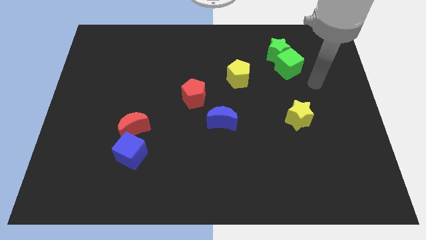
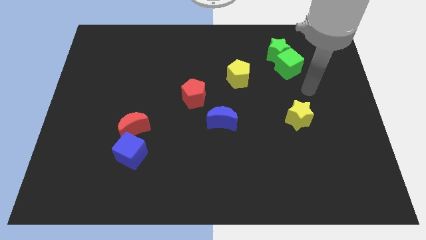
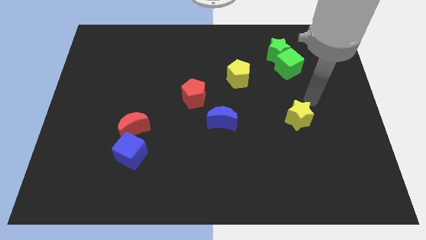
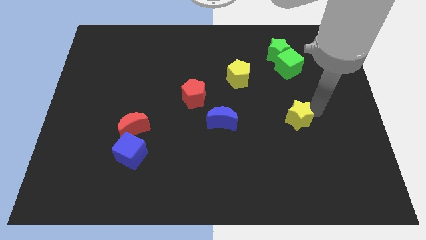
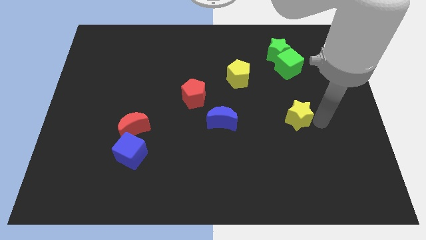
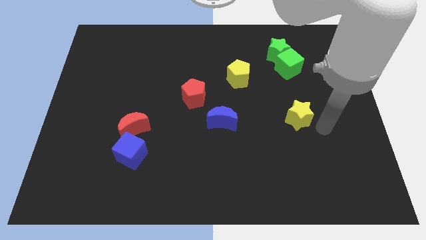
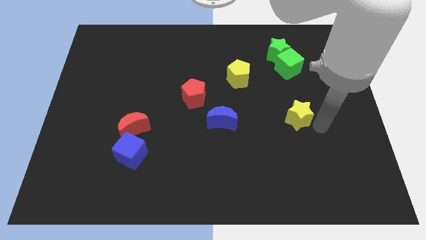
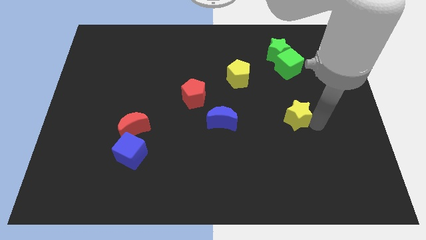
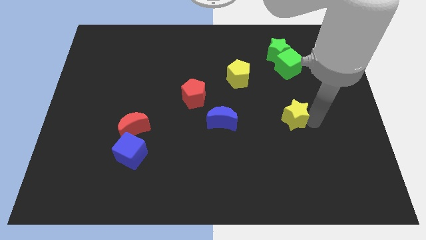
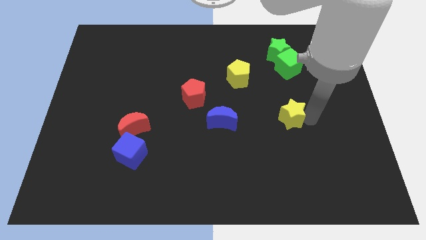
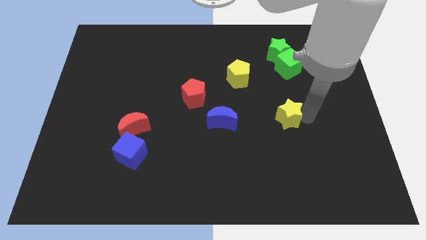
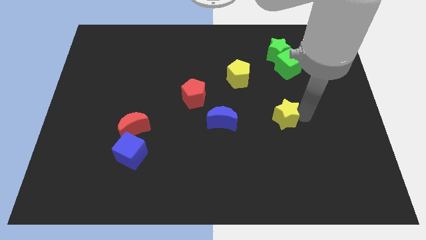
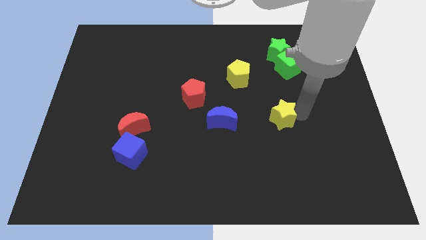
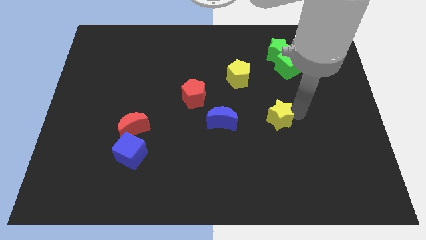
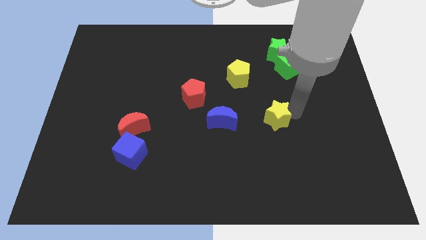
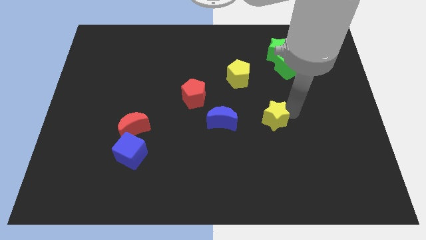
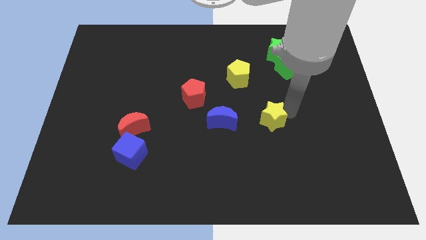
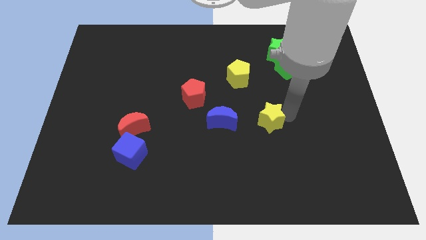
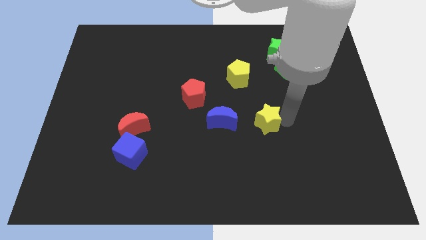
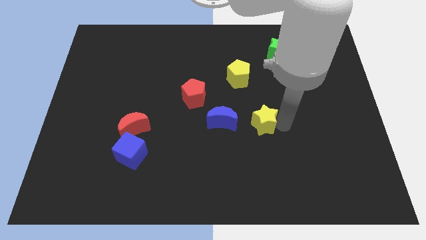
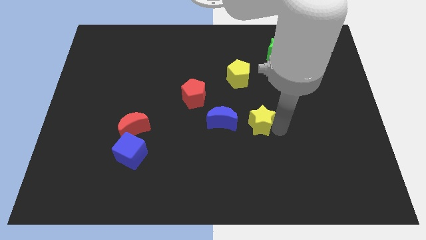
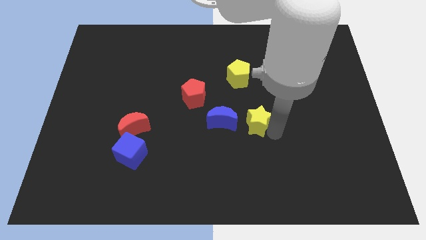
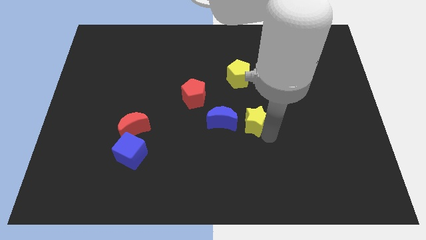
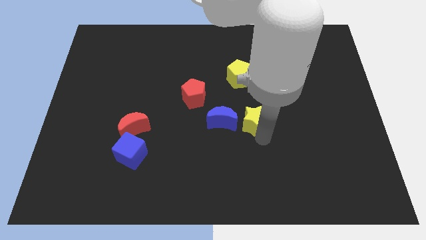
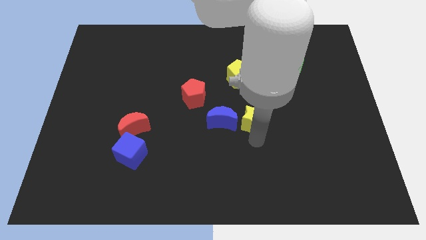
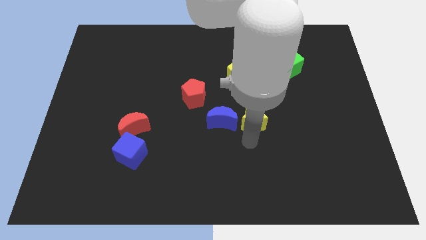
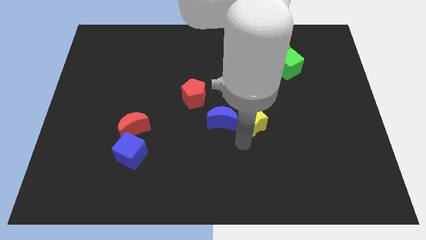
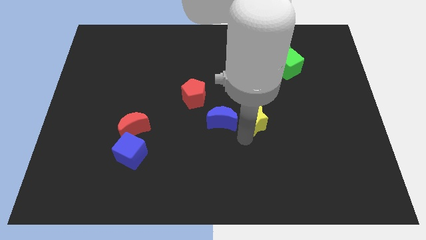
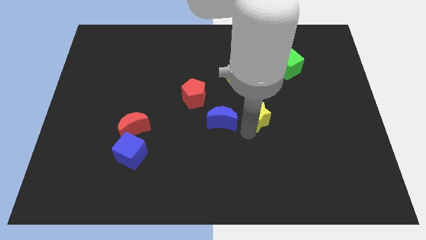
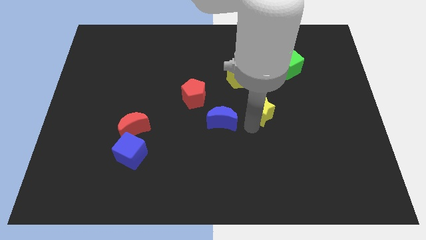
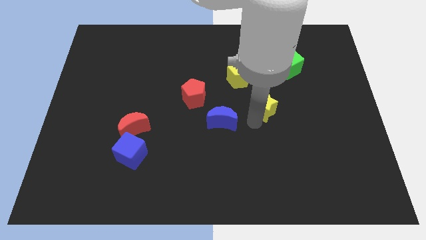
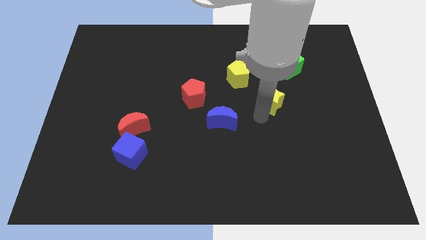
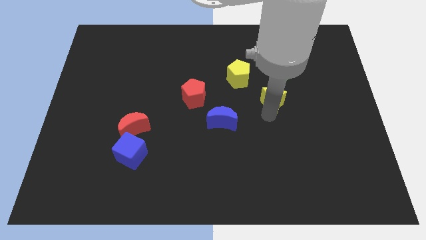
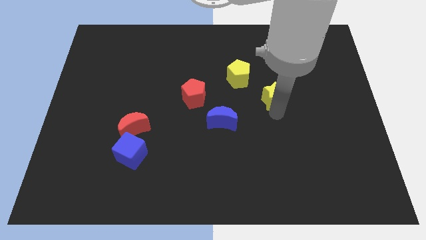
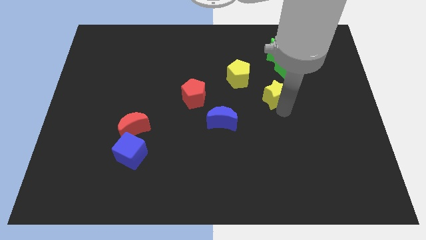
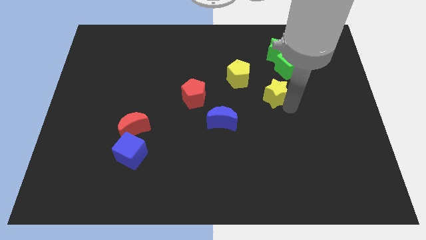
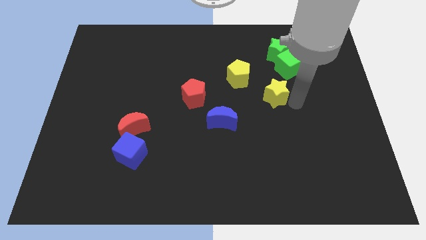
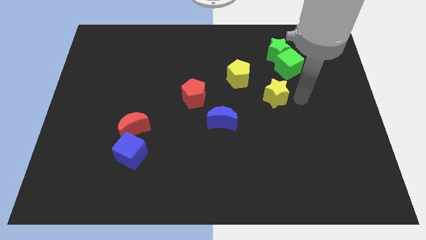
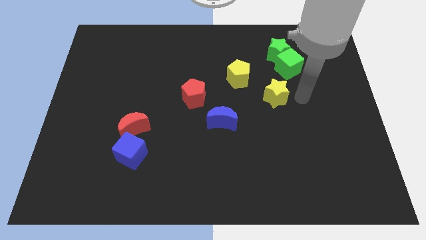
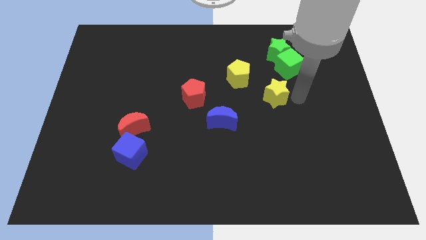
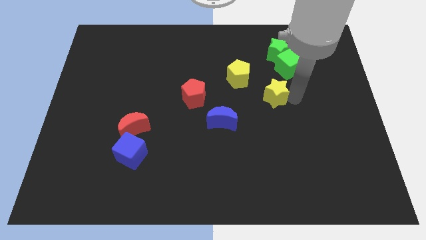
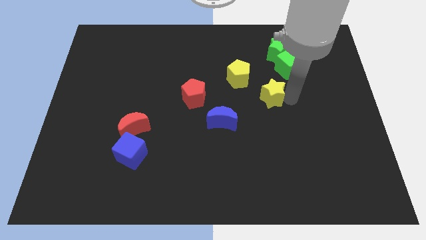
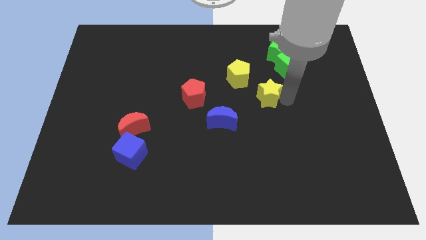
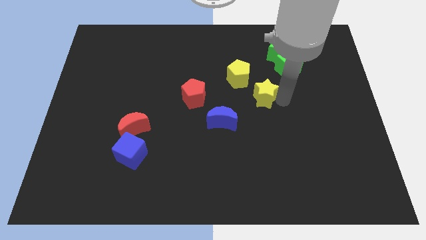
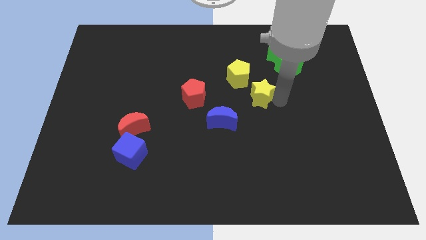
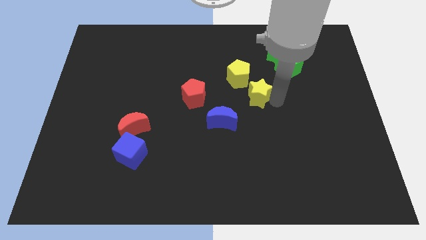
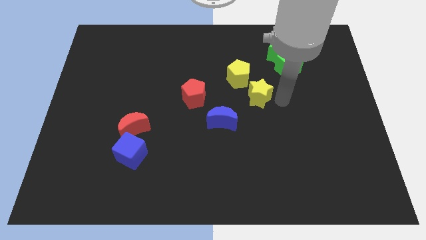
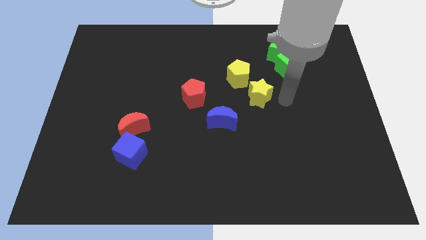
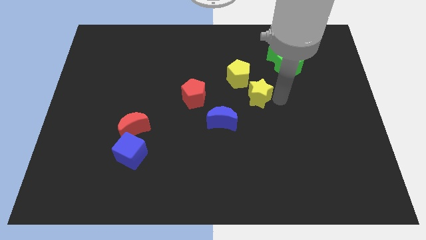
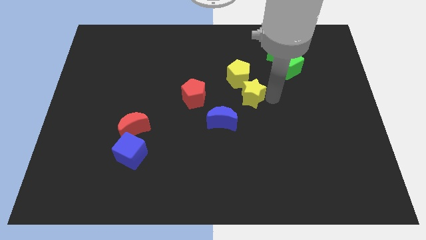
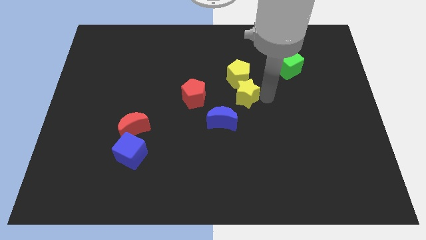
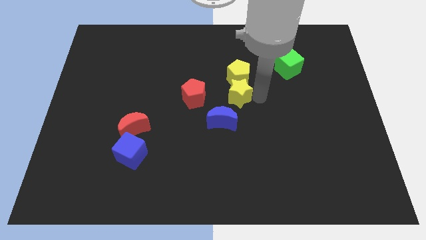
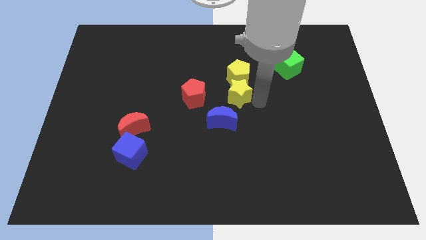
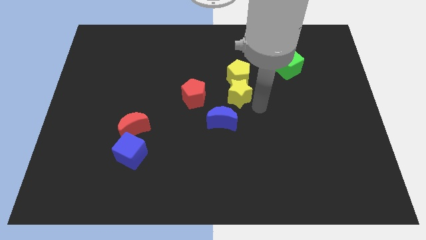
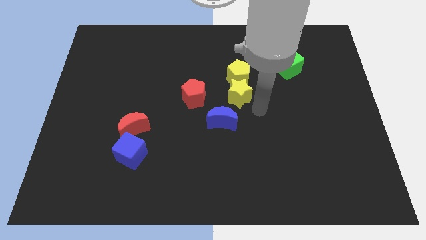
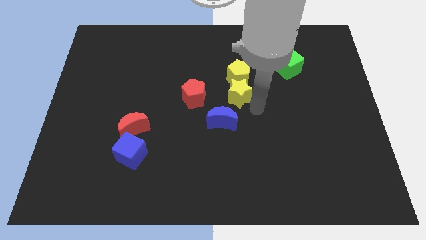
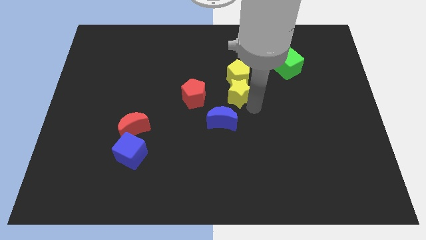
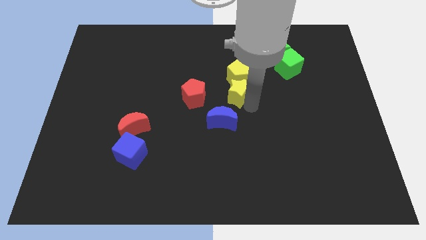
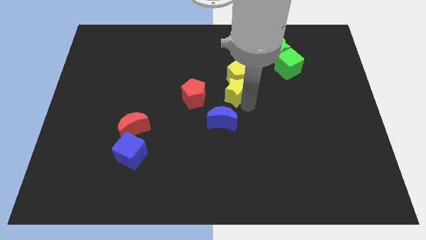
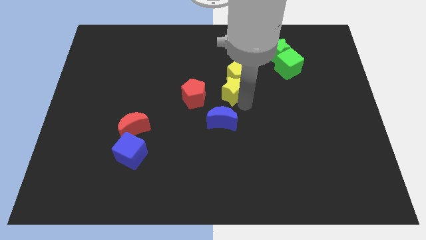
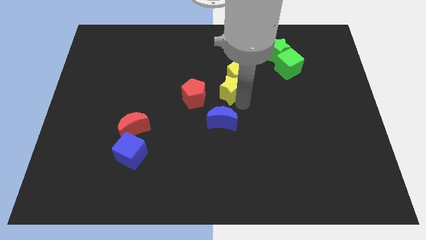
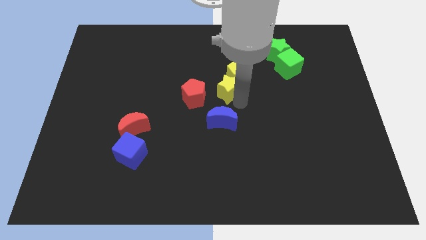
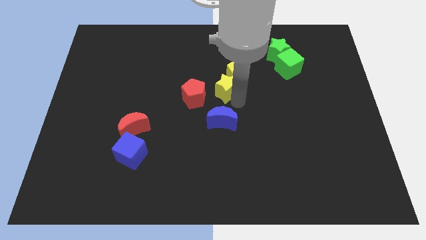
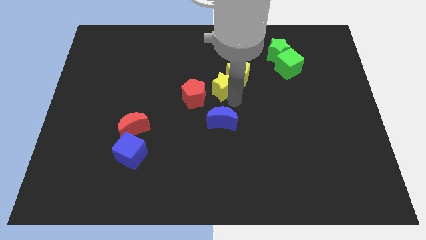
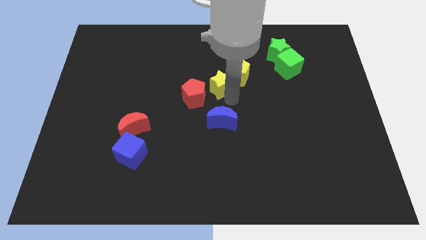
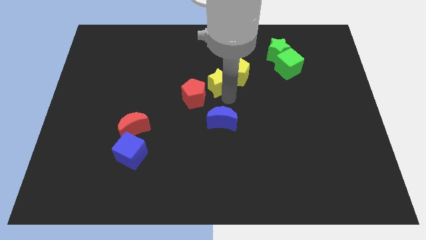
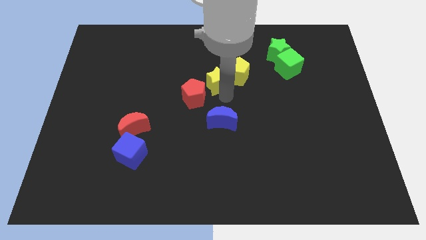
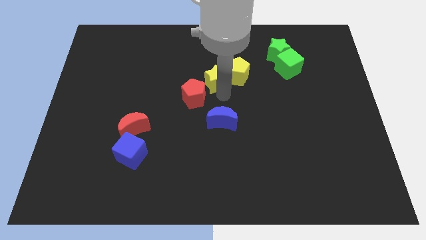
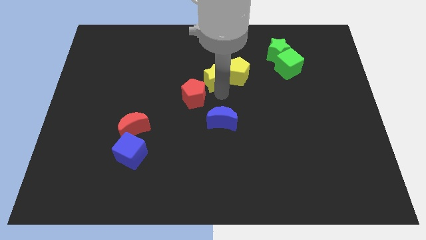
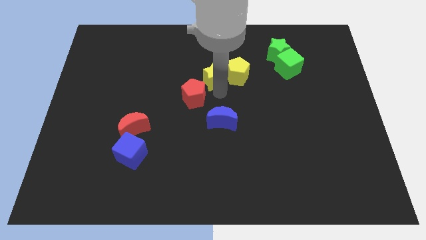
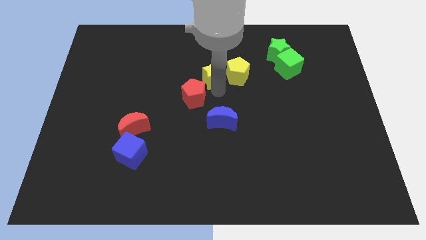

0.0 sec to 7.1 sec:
push the yellow star to the top side of the red pentagon
